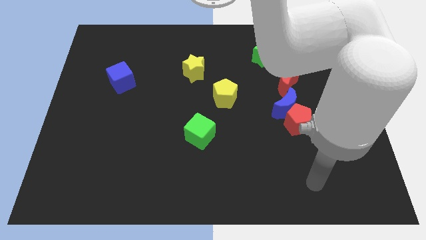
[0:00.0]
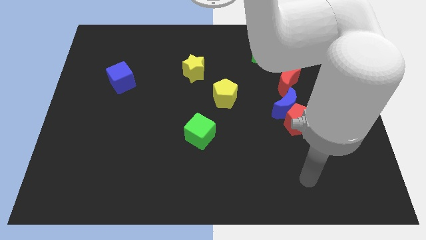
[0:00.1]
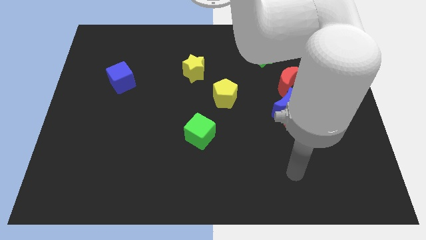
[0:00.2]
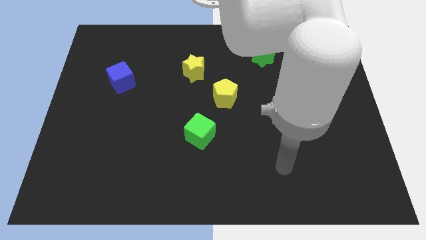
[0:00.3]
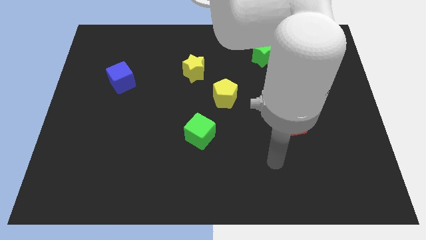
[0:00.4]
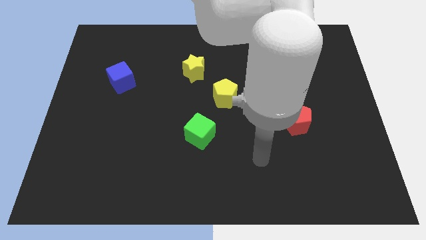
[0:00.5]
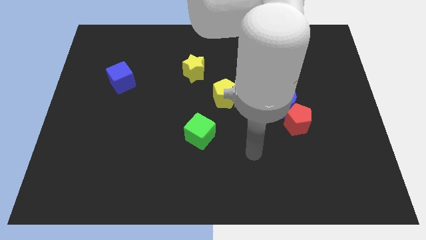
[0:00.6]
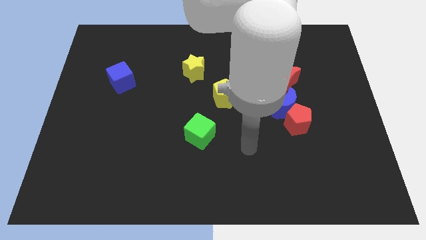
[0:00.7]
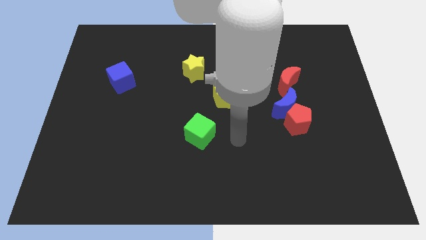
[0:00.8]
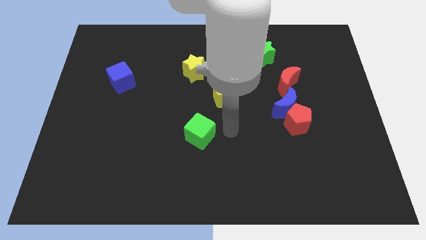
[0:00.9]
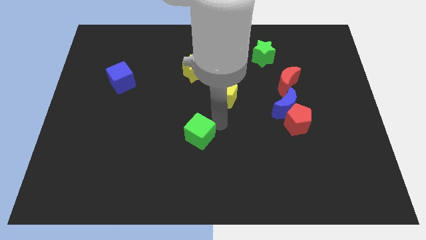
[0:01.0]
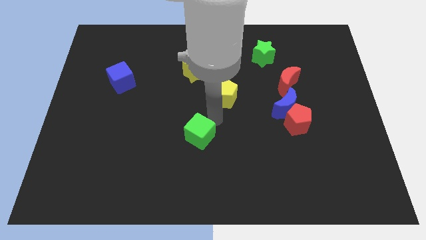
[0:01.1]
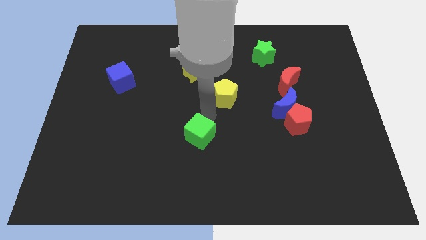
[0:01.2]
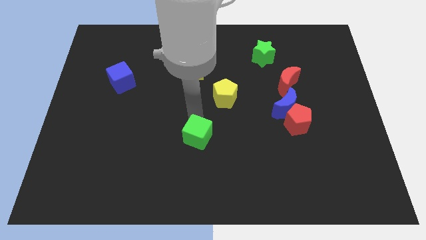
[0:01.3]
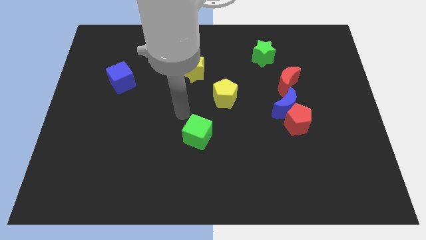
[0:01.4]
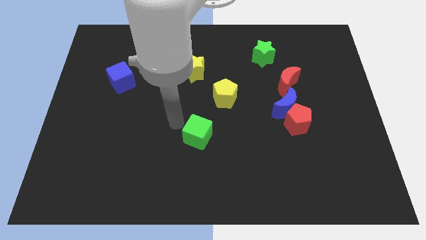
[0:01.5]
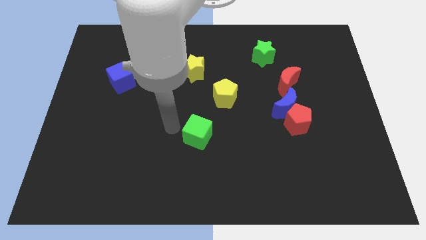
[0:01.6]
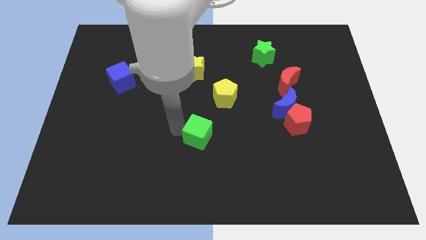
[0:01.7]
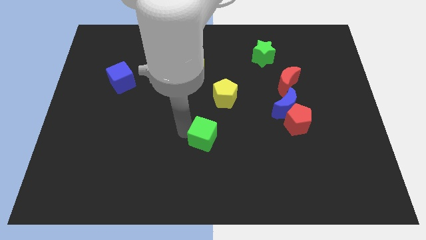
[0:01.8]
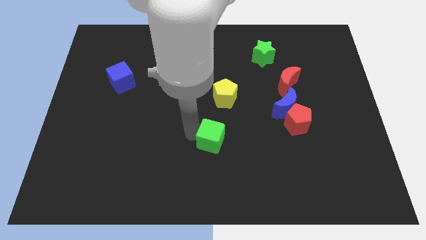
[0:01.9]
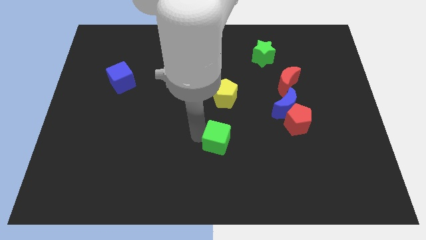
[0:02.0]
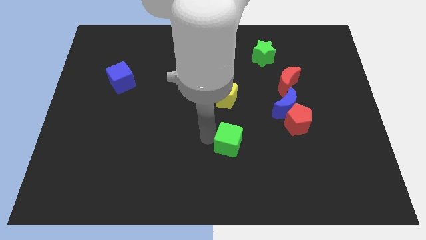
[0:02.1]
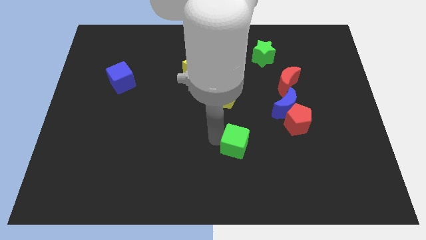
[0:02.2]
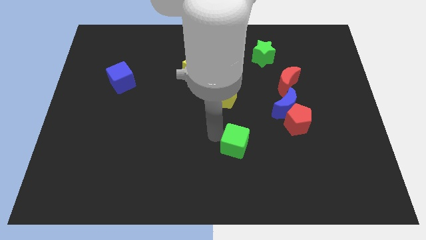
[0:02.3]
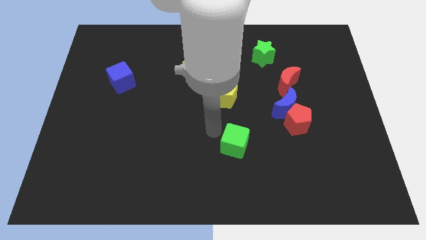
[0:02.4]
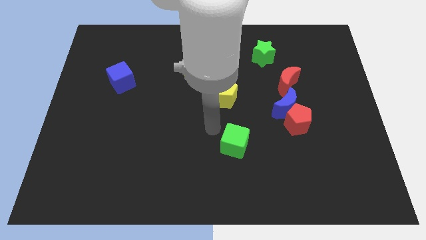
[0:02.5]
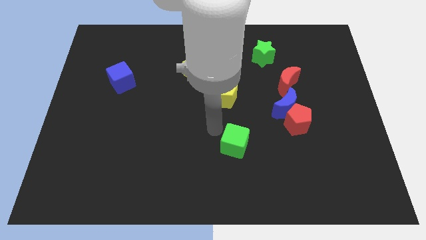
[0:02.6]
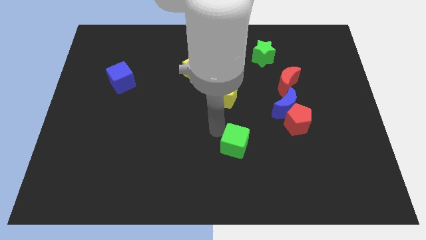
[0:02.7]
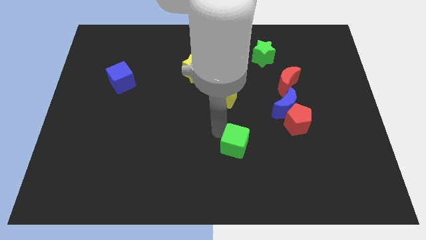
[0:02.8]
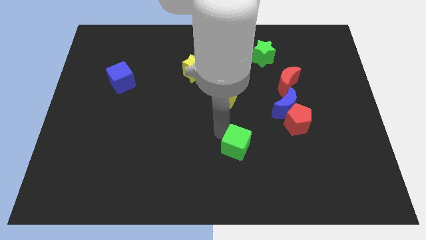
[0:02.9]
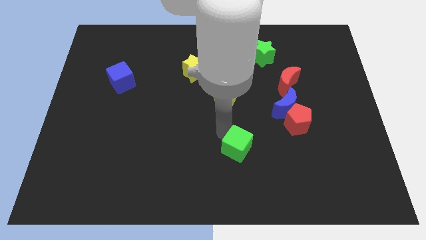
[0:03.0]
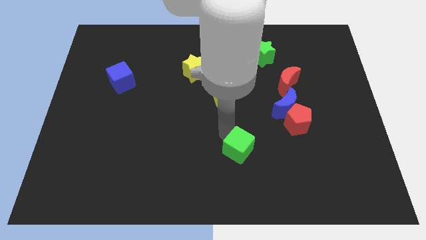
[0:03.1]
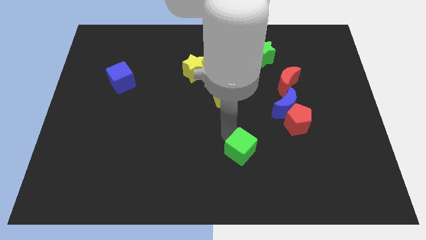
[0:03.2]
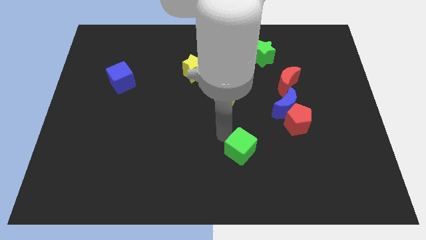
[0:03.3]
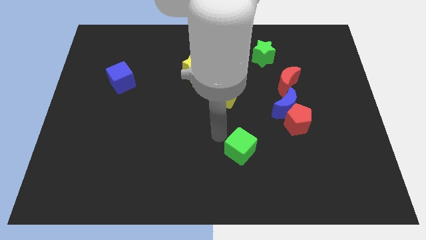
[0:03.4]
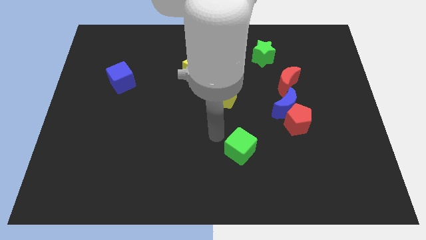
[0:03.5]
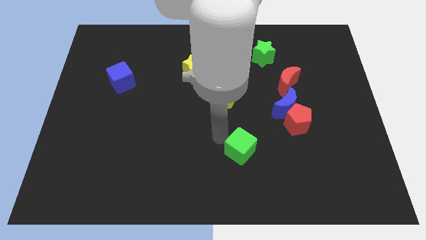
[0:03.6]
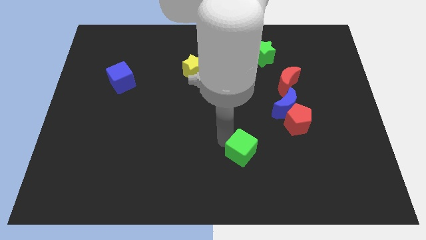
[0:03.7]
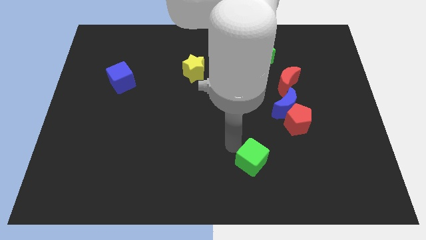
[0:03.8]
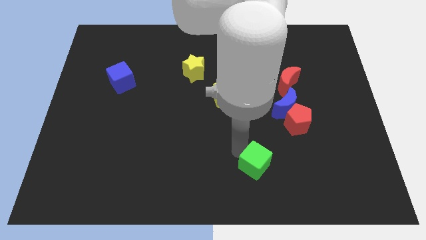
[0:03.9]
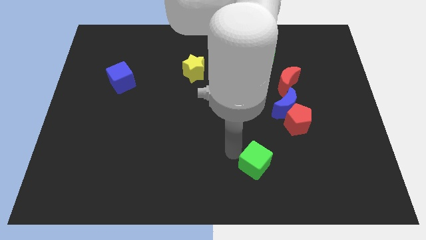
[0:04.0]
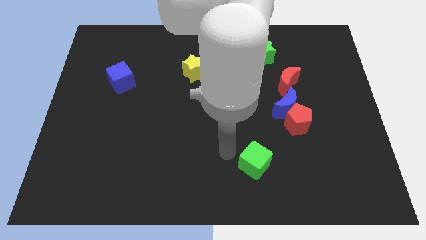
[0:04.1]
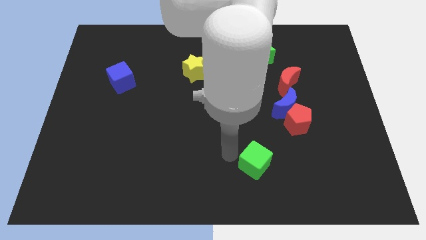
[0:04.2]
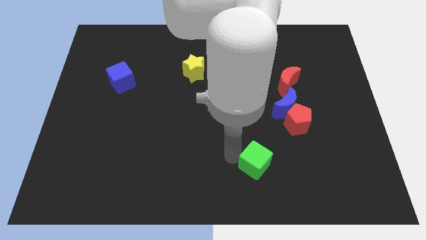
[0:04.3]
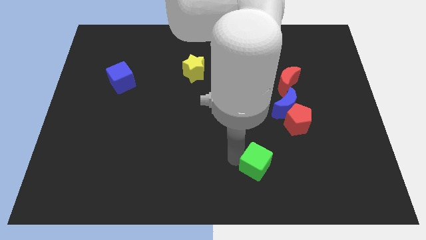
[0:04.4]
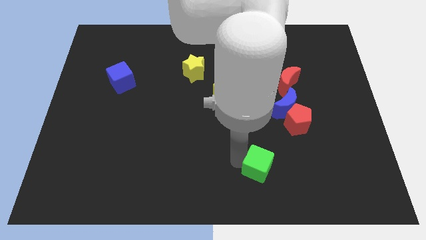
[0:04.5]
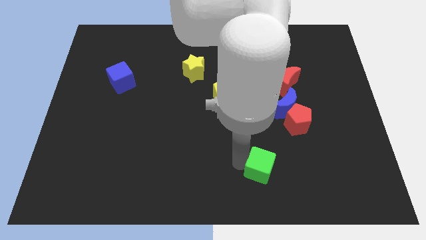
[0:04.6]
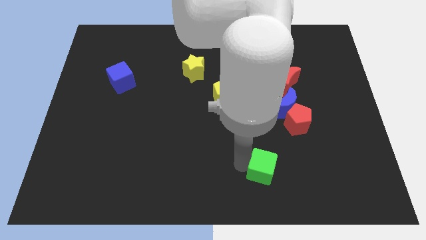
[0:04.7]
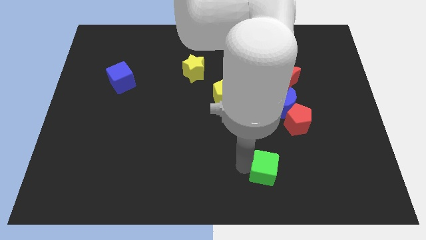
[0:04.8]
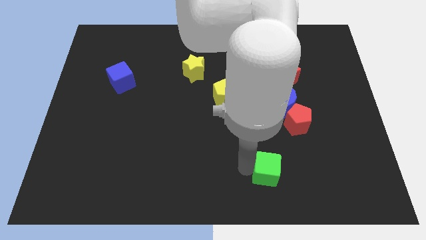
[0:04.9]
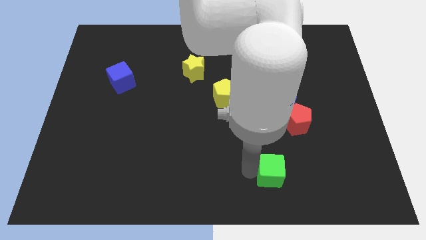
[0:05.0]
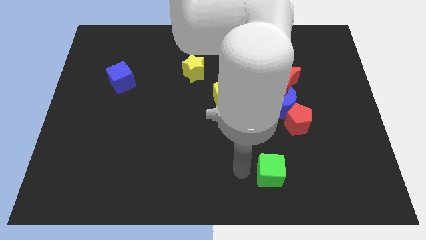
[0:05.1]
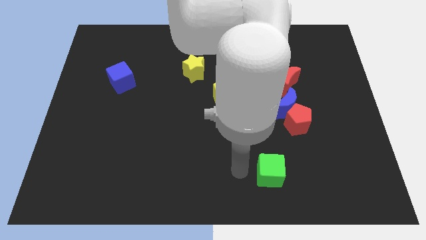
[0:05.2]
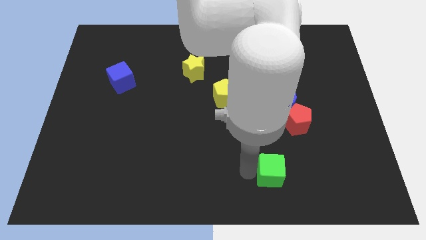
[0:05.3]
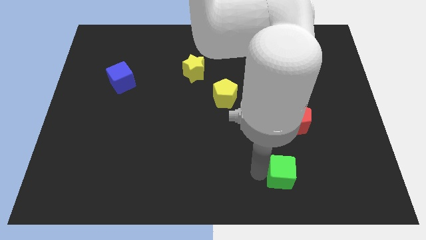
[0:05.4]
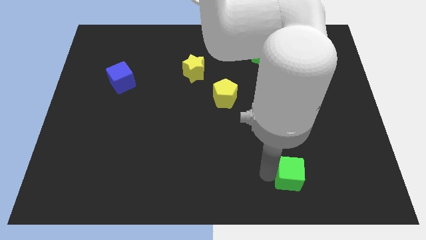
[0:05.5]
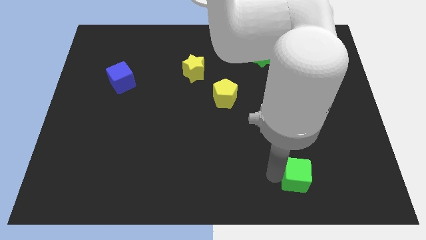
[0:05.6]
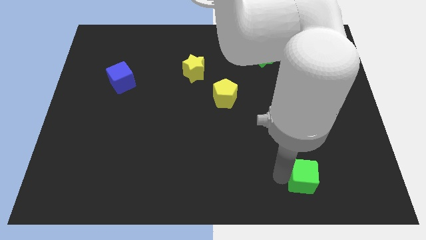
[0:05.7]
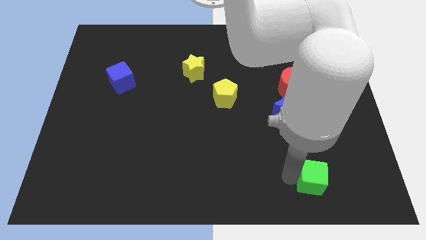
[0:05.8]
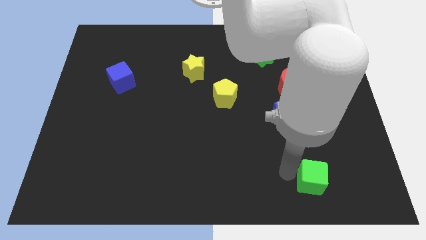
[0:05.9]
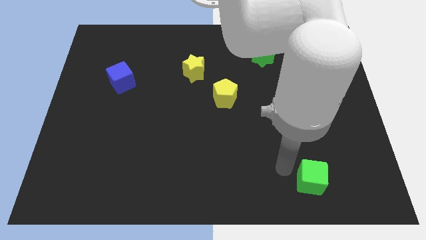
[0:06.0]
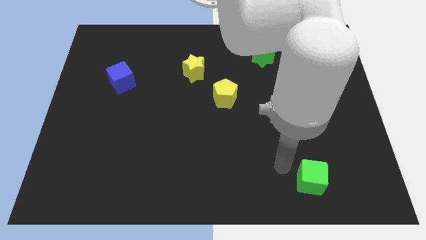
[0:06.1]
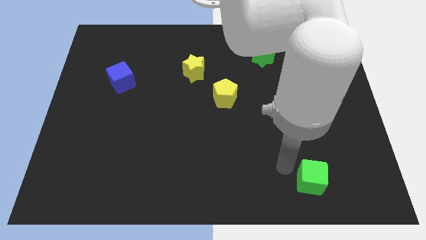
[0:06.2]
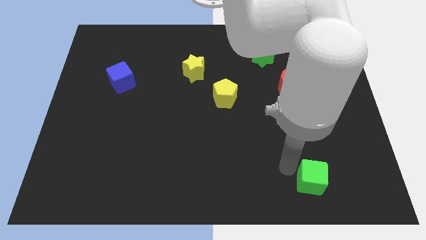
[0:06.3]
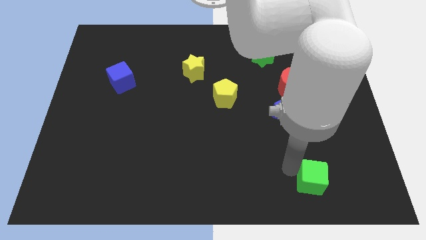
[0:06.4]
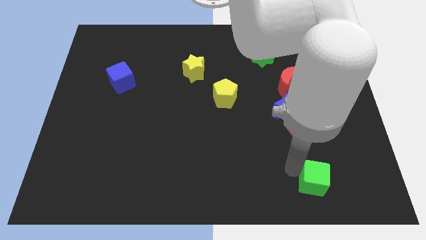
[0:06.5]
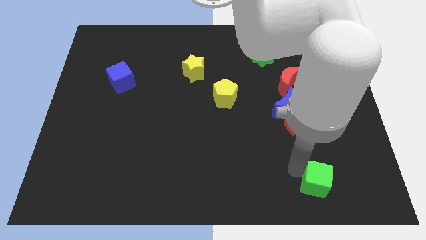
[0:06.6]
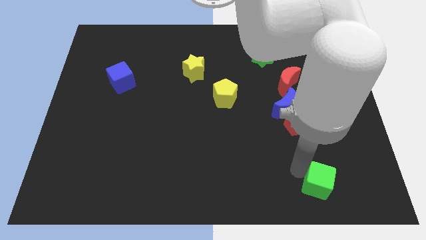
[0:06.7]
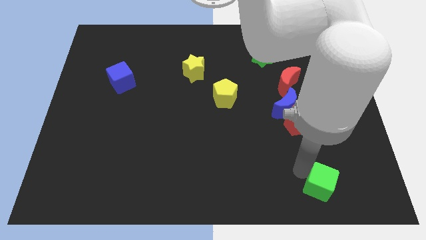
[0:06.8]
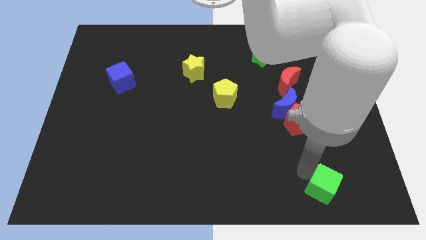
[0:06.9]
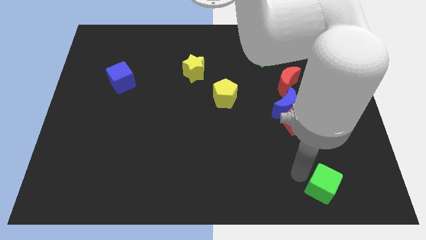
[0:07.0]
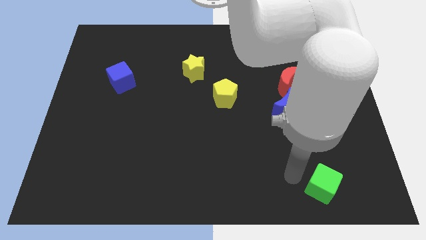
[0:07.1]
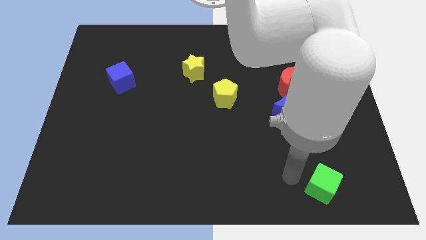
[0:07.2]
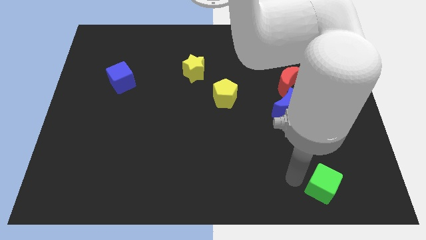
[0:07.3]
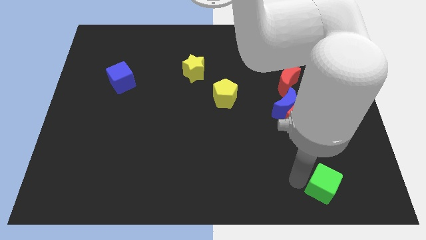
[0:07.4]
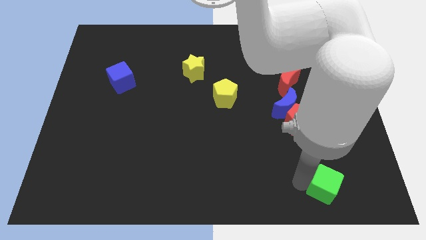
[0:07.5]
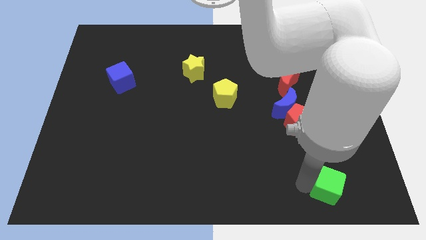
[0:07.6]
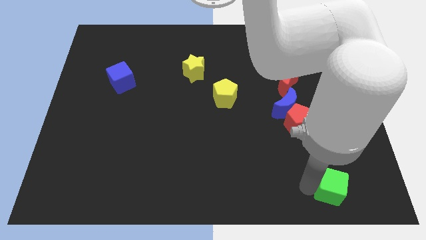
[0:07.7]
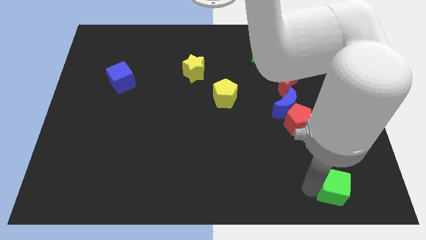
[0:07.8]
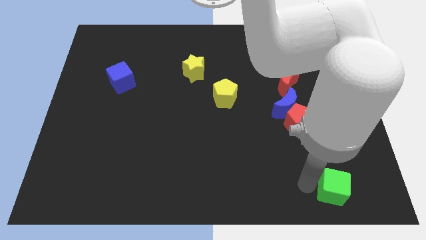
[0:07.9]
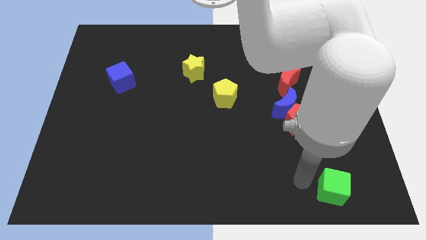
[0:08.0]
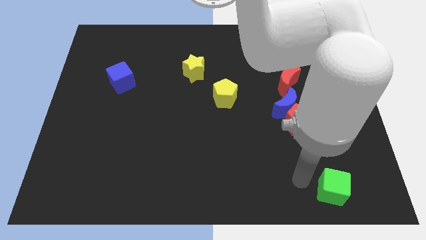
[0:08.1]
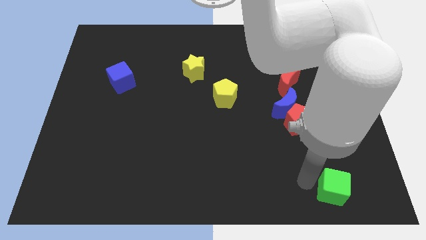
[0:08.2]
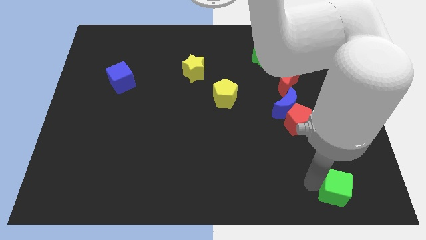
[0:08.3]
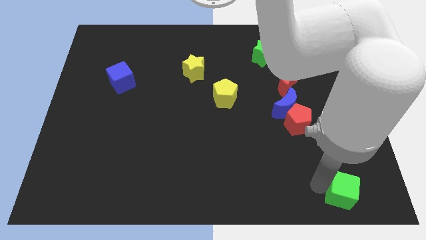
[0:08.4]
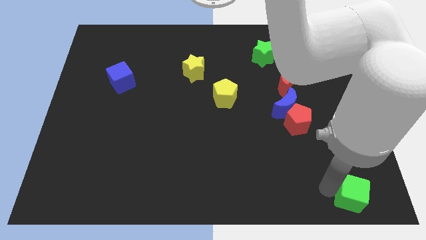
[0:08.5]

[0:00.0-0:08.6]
move the green cube to the lower right corner
